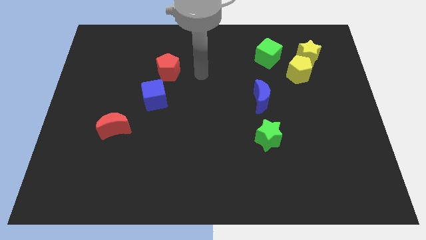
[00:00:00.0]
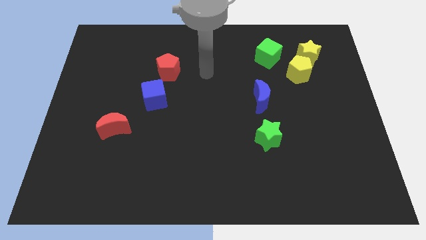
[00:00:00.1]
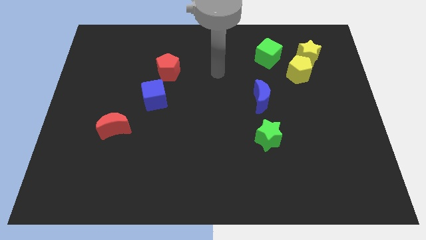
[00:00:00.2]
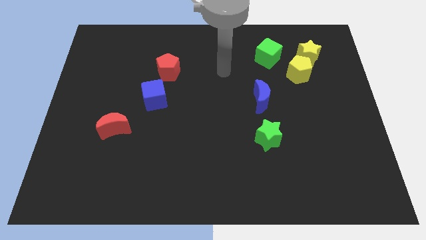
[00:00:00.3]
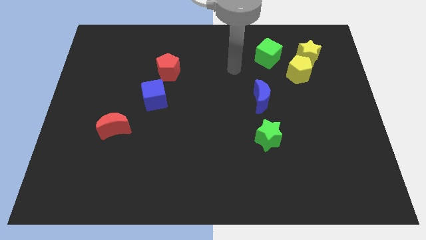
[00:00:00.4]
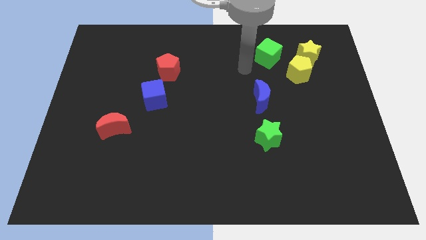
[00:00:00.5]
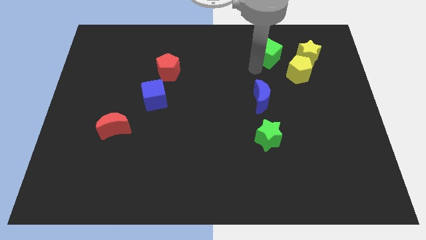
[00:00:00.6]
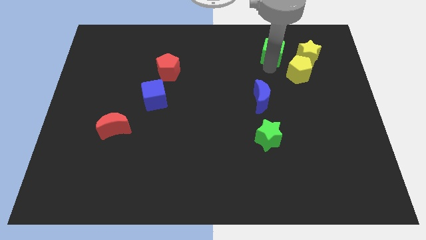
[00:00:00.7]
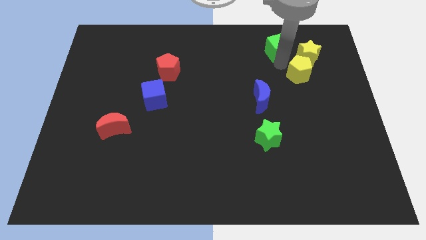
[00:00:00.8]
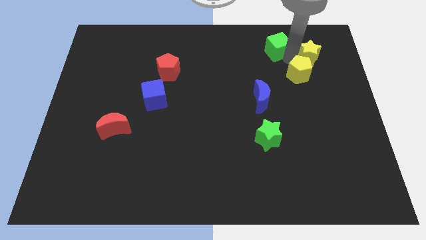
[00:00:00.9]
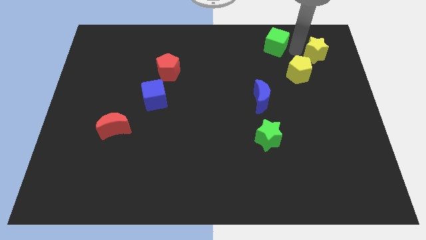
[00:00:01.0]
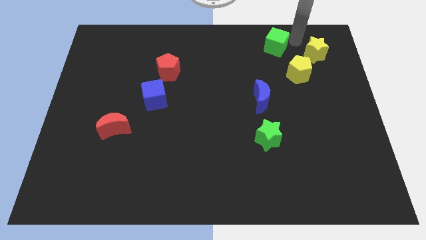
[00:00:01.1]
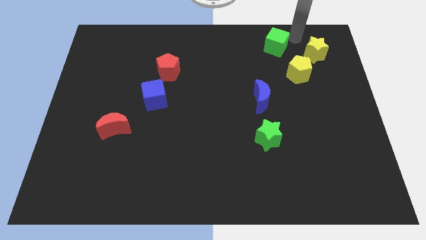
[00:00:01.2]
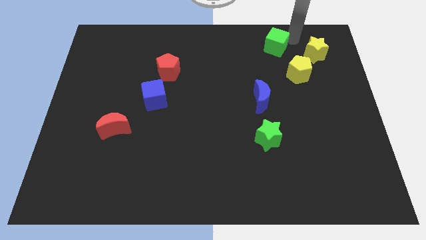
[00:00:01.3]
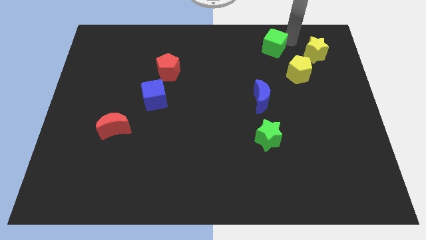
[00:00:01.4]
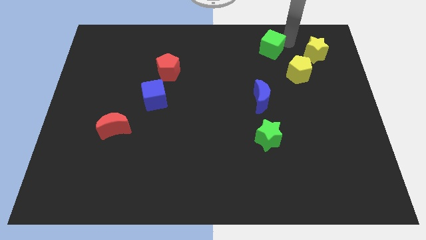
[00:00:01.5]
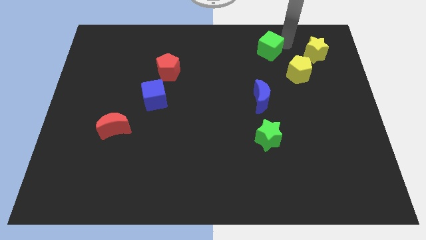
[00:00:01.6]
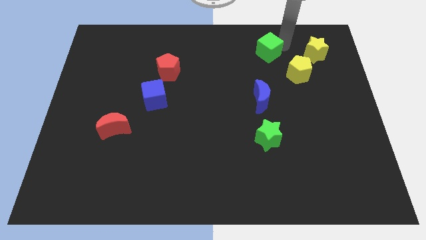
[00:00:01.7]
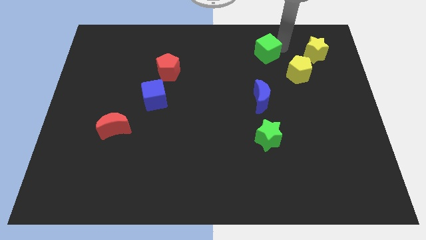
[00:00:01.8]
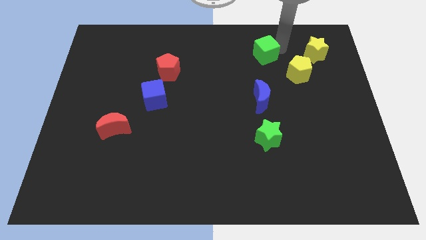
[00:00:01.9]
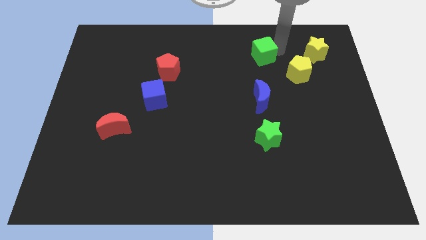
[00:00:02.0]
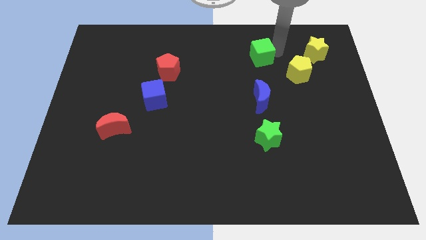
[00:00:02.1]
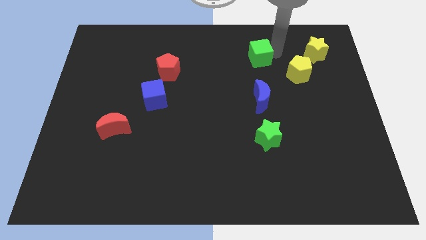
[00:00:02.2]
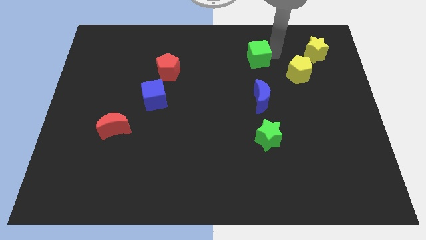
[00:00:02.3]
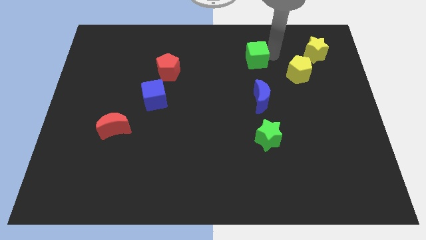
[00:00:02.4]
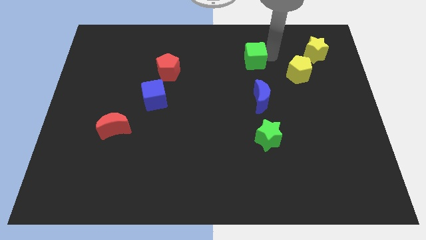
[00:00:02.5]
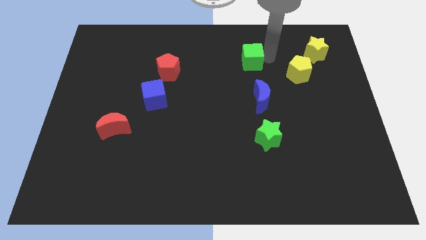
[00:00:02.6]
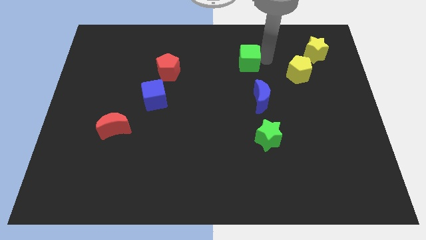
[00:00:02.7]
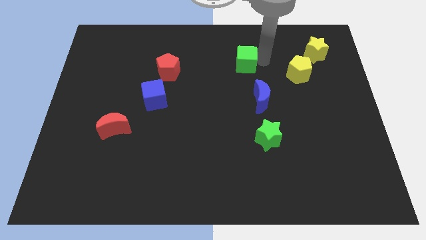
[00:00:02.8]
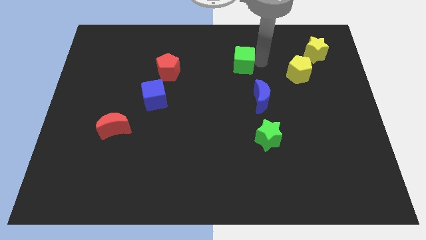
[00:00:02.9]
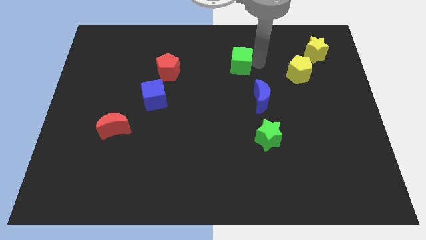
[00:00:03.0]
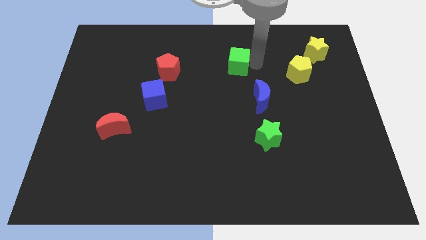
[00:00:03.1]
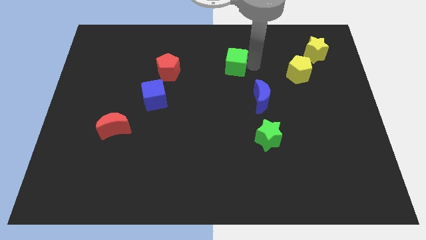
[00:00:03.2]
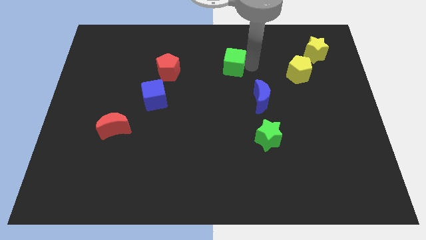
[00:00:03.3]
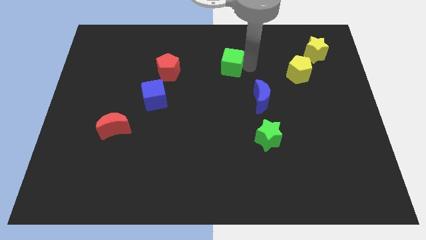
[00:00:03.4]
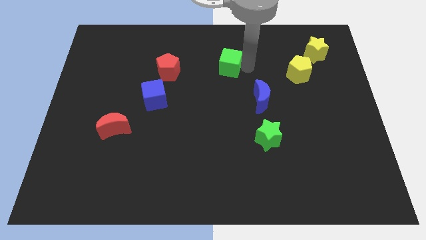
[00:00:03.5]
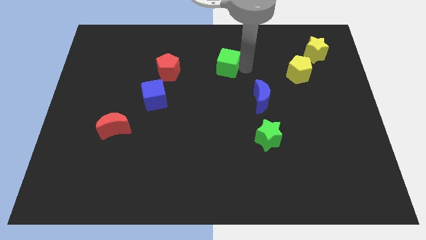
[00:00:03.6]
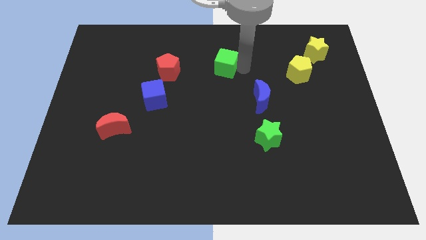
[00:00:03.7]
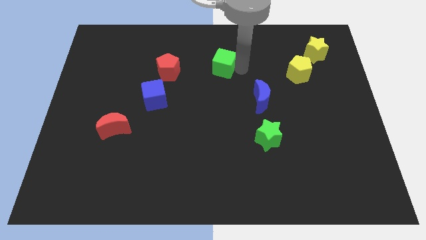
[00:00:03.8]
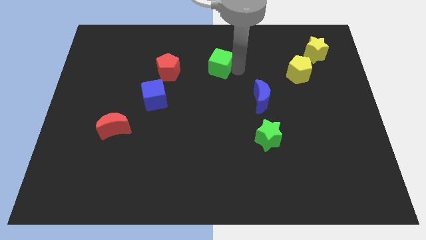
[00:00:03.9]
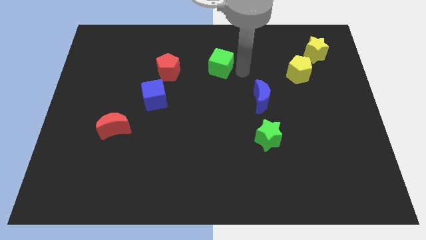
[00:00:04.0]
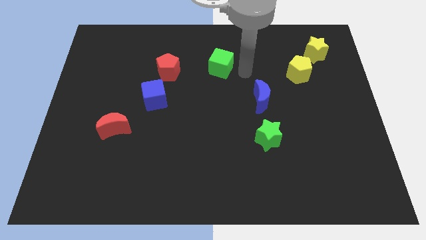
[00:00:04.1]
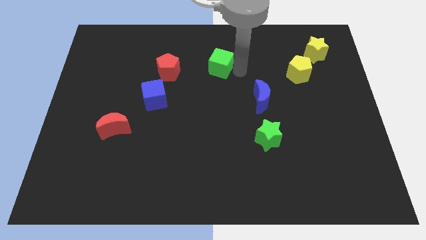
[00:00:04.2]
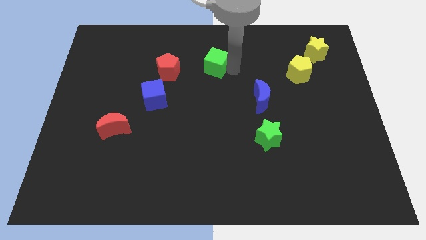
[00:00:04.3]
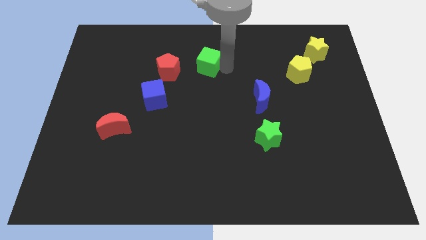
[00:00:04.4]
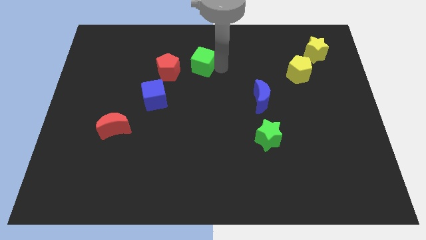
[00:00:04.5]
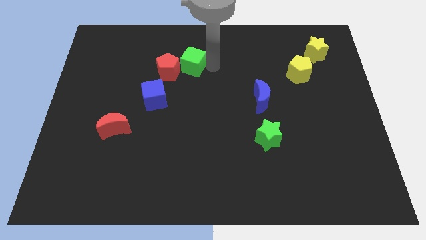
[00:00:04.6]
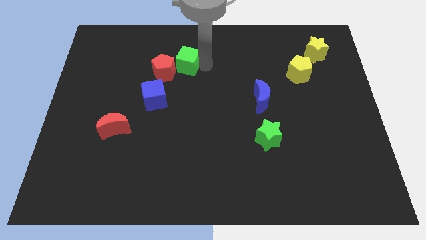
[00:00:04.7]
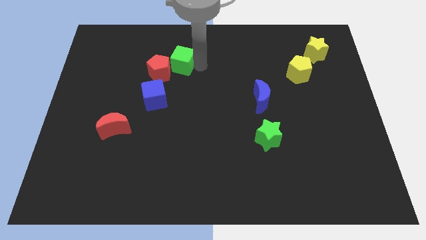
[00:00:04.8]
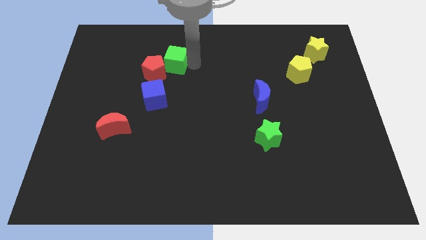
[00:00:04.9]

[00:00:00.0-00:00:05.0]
put the green cube to the top of the blue cube

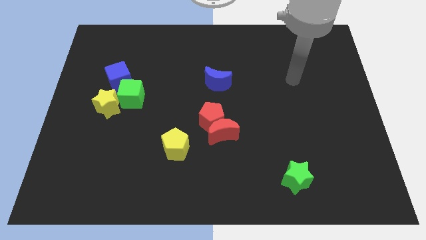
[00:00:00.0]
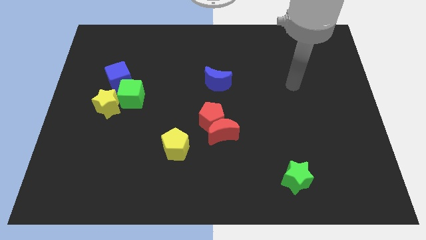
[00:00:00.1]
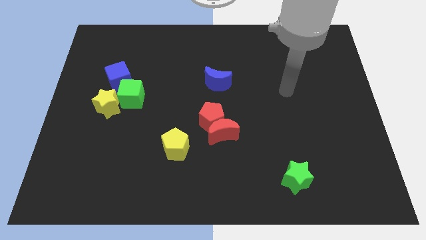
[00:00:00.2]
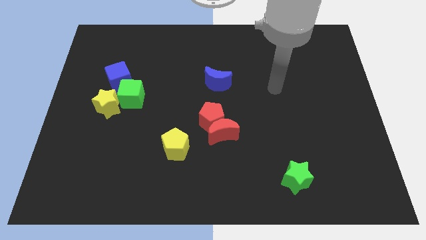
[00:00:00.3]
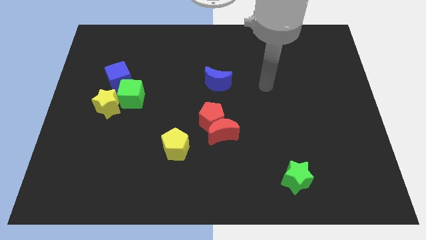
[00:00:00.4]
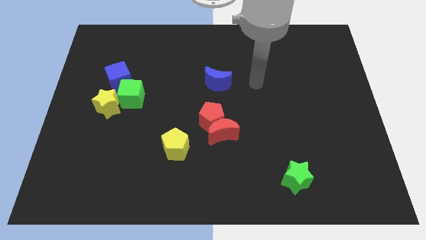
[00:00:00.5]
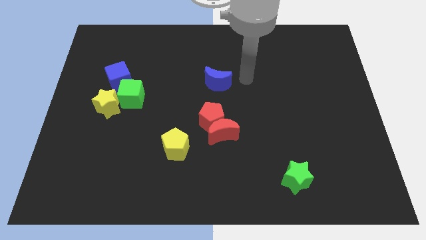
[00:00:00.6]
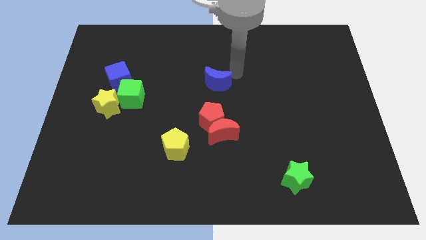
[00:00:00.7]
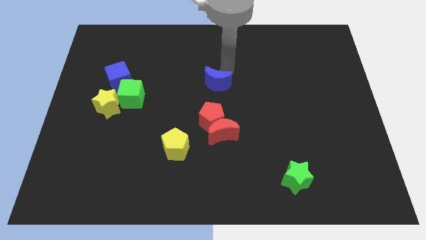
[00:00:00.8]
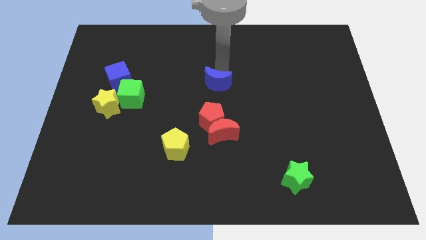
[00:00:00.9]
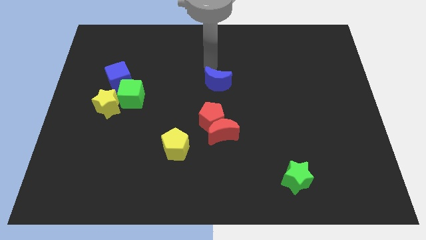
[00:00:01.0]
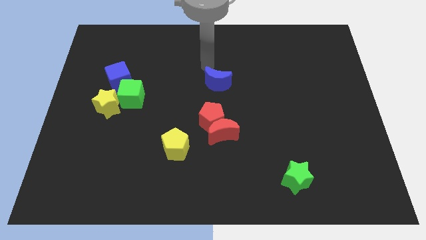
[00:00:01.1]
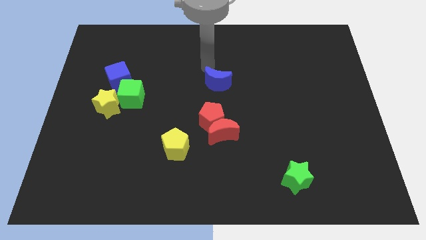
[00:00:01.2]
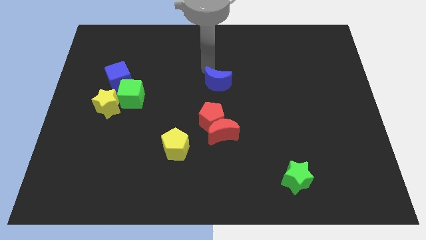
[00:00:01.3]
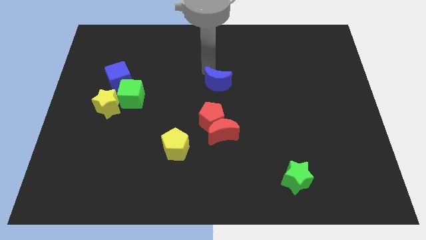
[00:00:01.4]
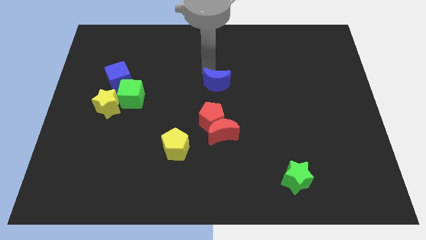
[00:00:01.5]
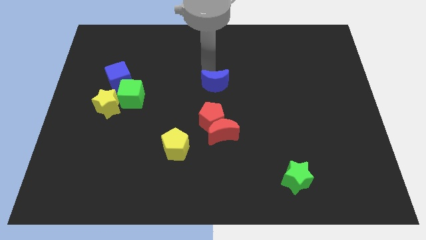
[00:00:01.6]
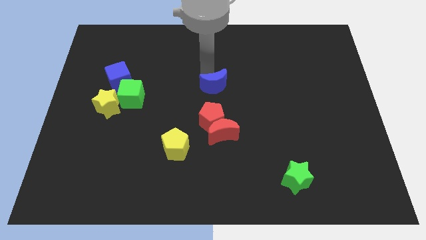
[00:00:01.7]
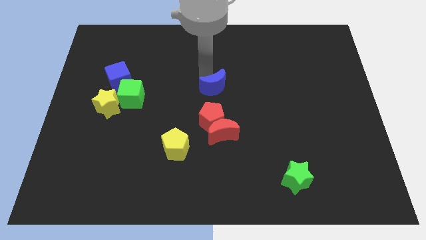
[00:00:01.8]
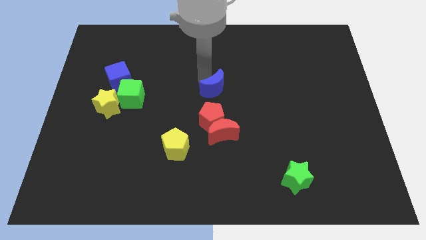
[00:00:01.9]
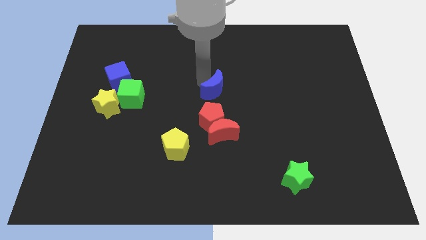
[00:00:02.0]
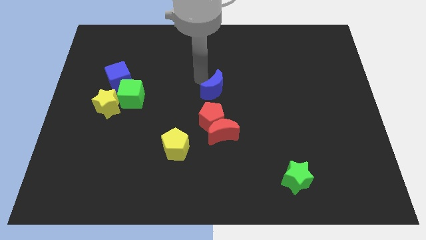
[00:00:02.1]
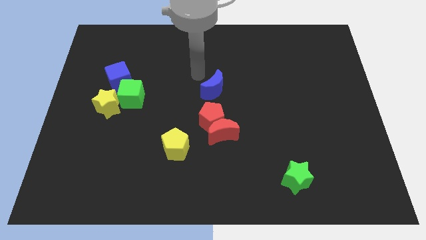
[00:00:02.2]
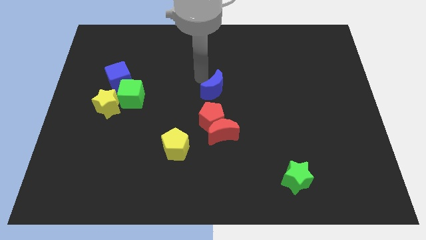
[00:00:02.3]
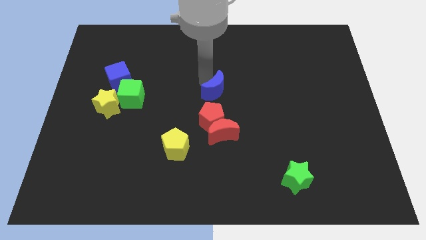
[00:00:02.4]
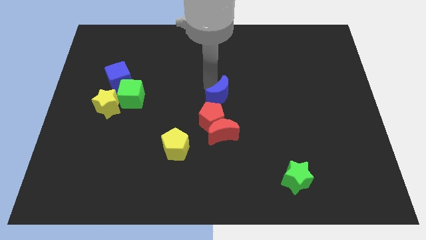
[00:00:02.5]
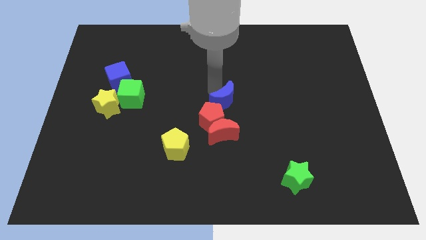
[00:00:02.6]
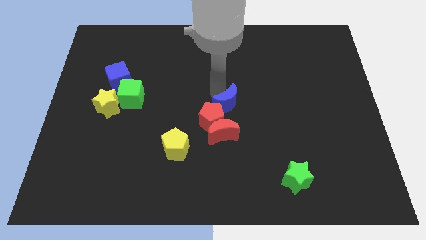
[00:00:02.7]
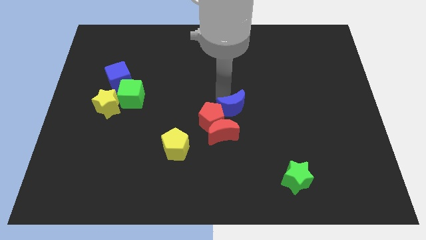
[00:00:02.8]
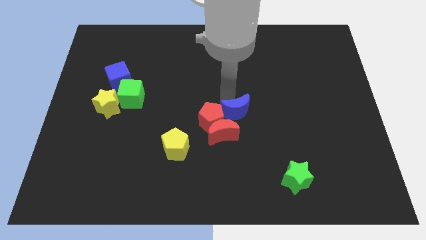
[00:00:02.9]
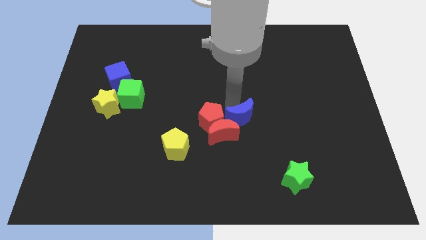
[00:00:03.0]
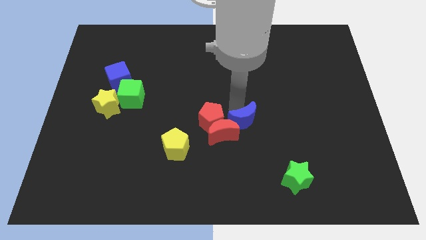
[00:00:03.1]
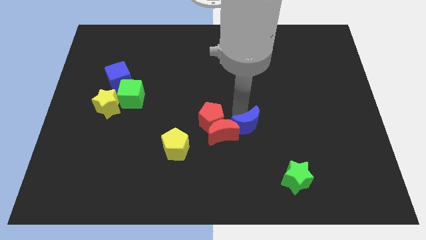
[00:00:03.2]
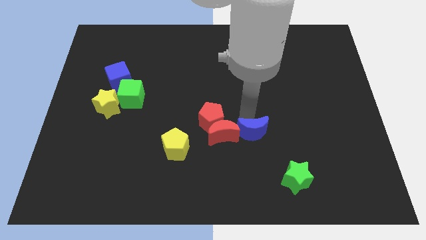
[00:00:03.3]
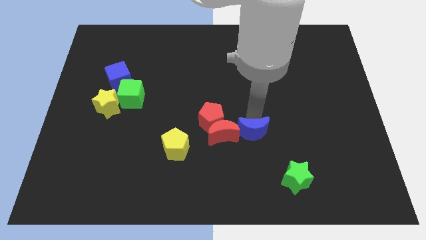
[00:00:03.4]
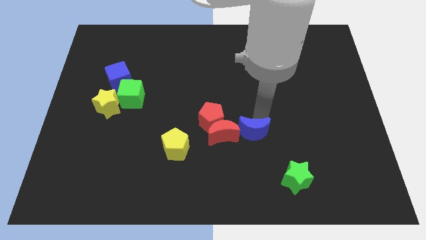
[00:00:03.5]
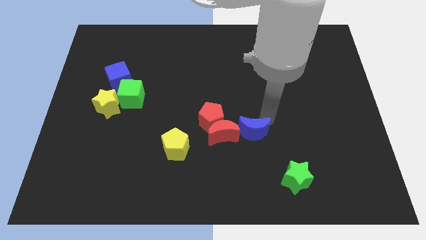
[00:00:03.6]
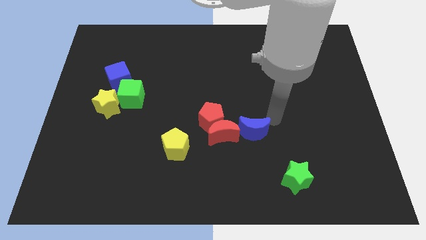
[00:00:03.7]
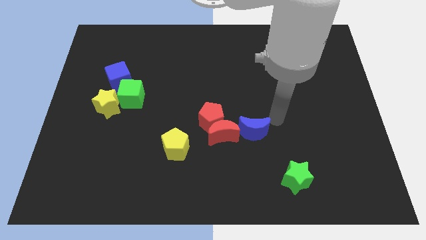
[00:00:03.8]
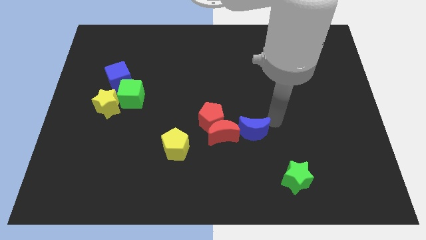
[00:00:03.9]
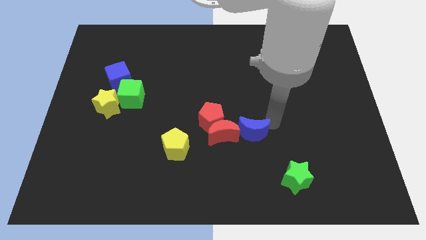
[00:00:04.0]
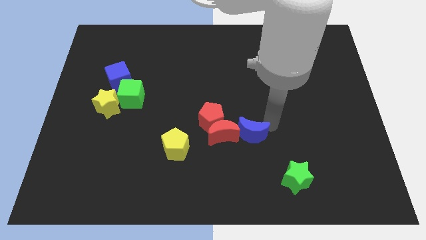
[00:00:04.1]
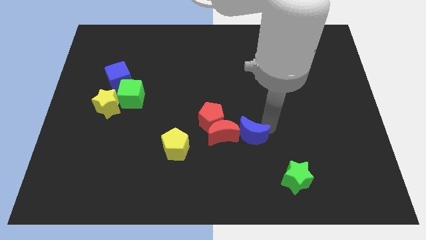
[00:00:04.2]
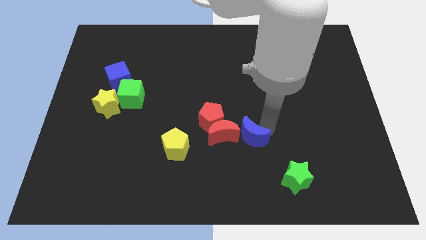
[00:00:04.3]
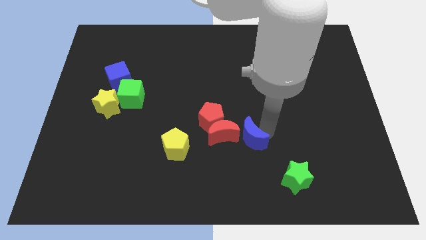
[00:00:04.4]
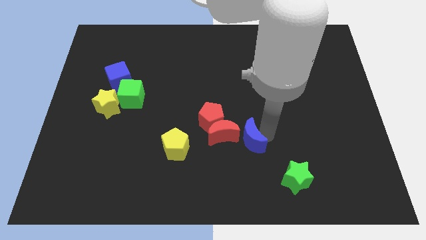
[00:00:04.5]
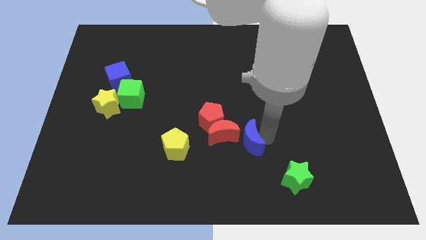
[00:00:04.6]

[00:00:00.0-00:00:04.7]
push the blue moon right of the yellow pentagon
